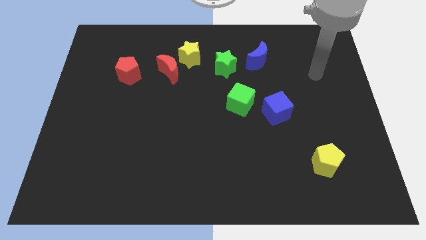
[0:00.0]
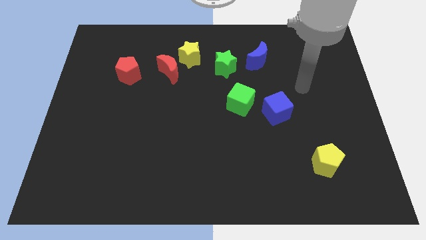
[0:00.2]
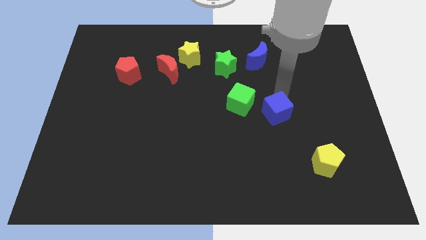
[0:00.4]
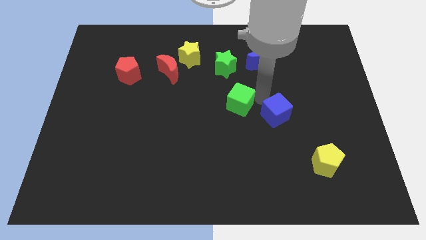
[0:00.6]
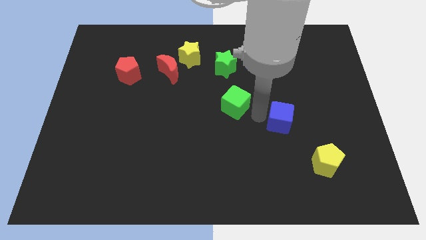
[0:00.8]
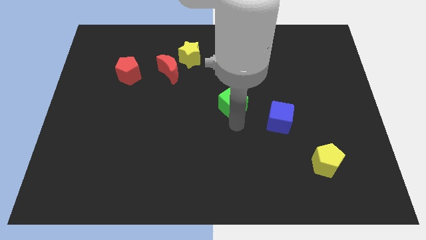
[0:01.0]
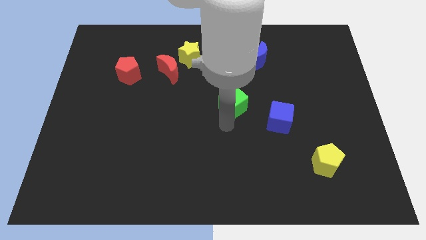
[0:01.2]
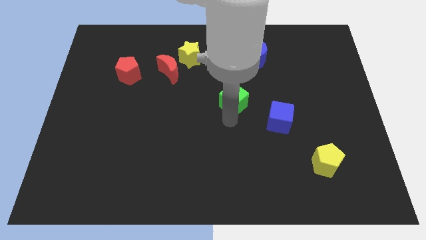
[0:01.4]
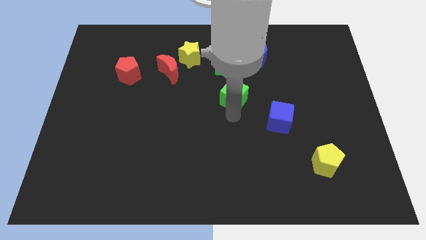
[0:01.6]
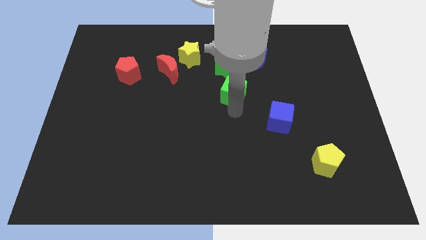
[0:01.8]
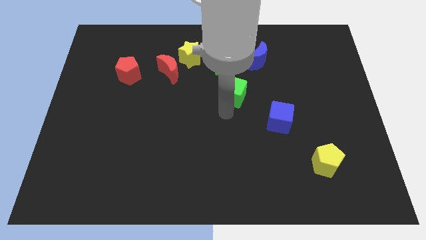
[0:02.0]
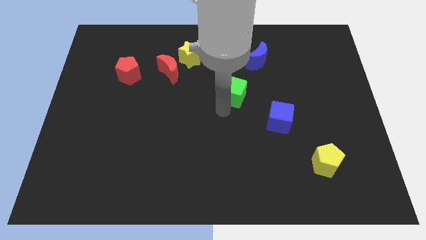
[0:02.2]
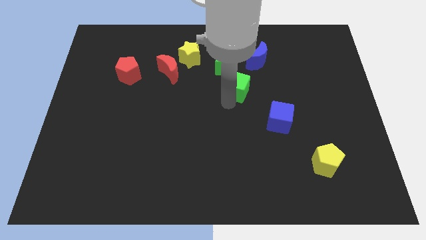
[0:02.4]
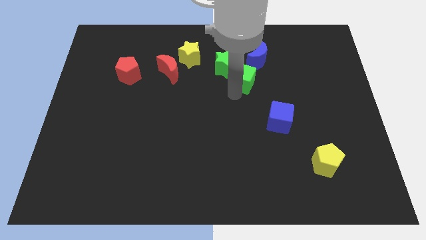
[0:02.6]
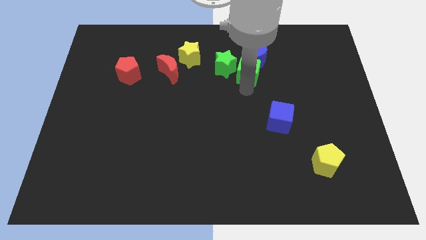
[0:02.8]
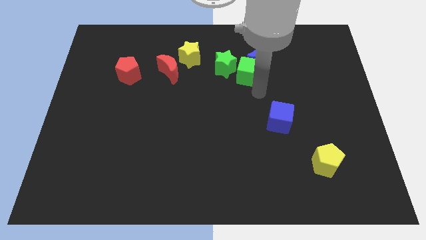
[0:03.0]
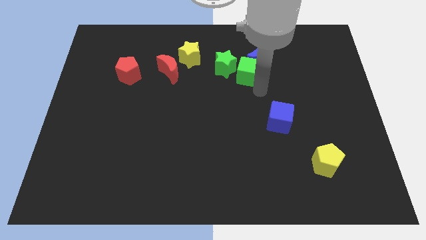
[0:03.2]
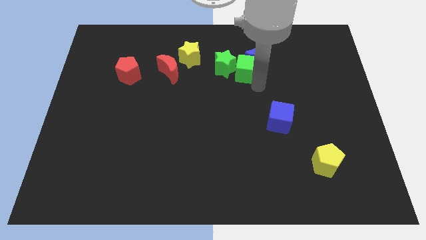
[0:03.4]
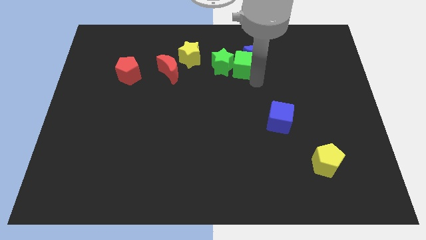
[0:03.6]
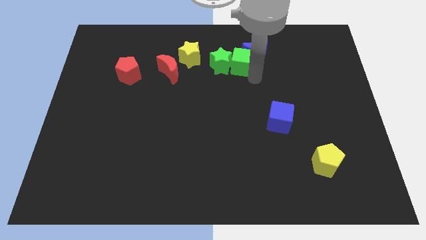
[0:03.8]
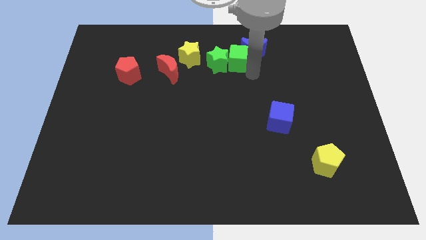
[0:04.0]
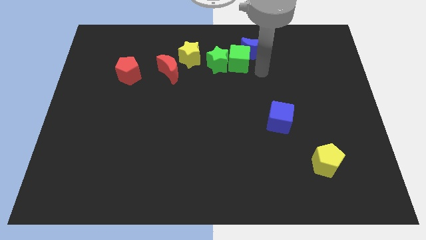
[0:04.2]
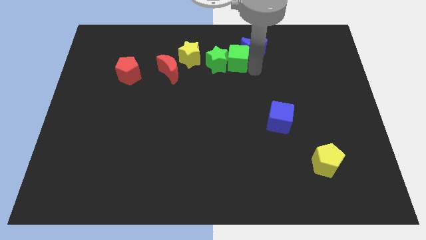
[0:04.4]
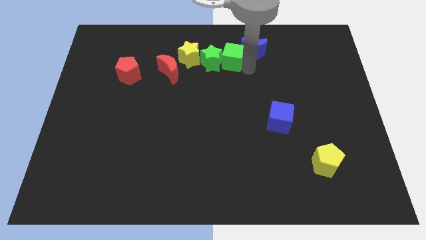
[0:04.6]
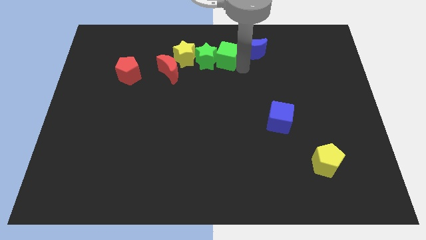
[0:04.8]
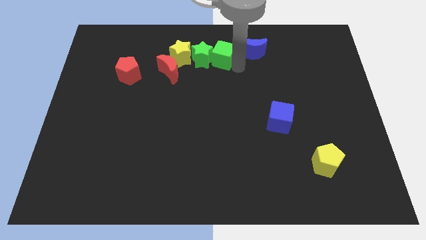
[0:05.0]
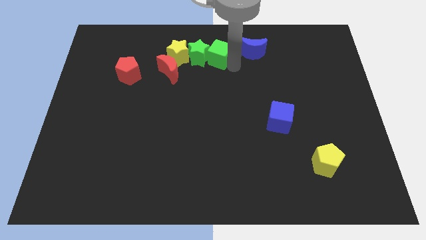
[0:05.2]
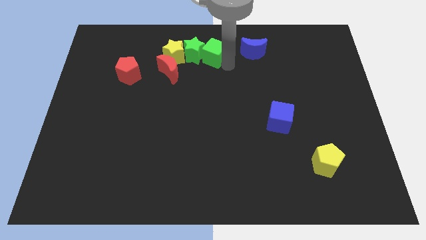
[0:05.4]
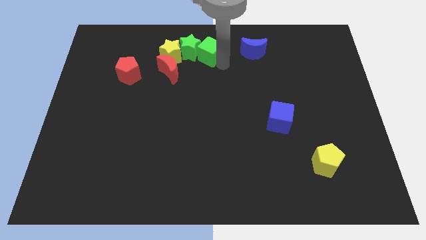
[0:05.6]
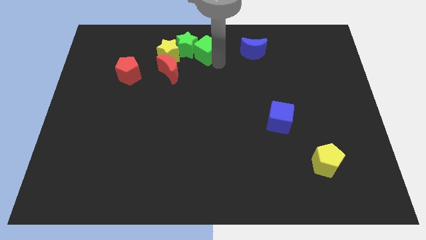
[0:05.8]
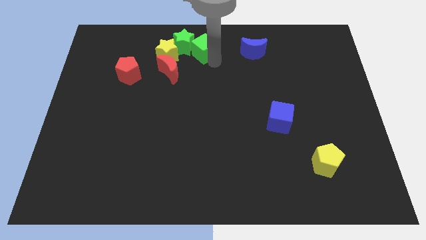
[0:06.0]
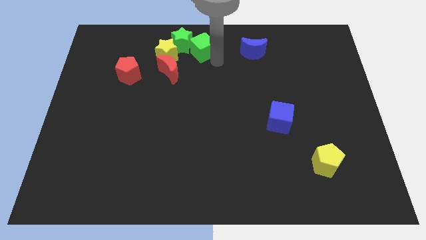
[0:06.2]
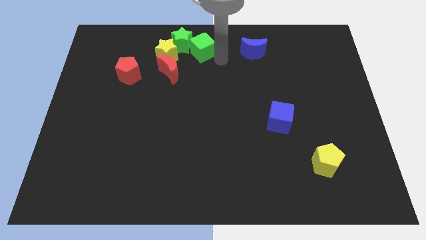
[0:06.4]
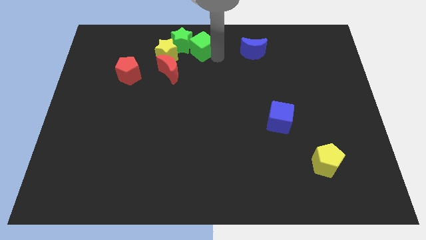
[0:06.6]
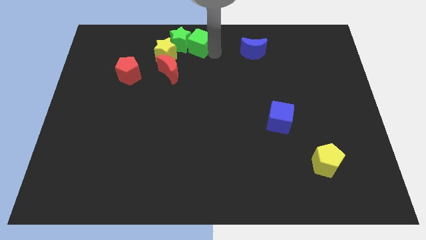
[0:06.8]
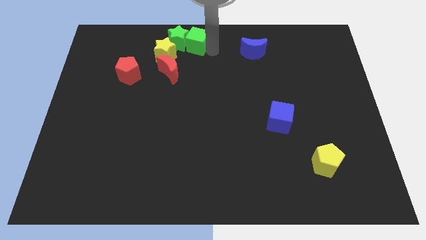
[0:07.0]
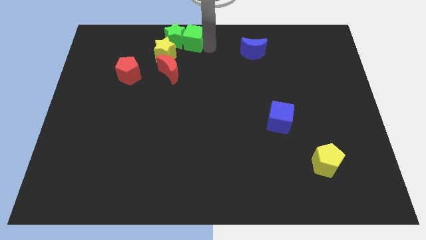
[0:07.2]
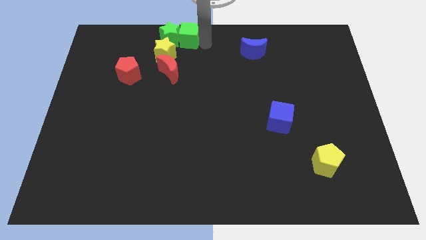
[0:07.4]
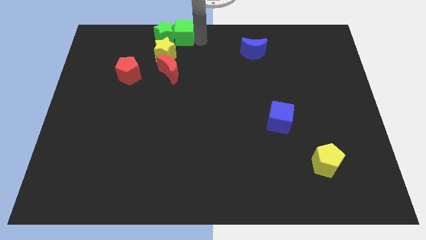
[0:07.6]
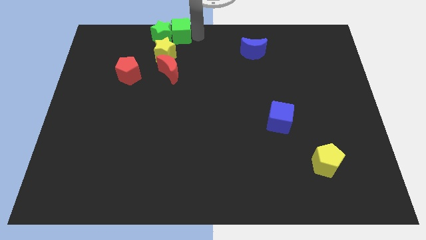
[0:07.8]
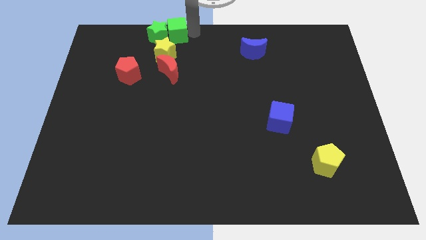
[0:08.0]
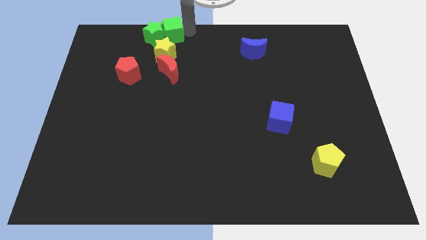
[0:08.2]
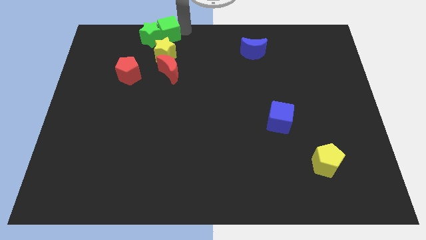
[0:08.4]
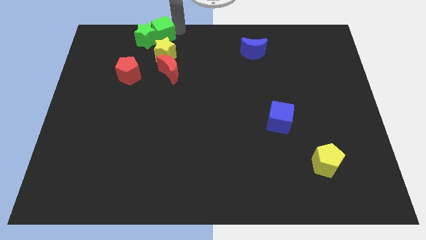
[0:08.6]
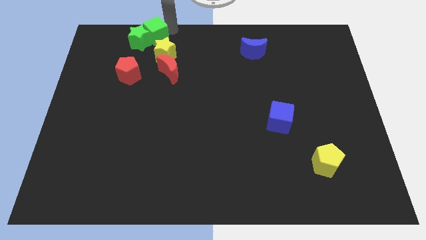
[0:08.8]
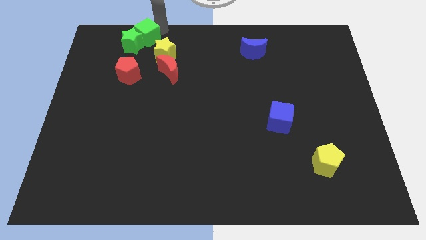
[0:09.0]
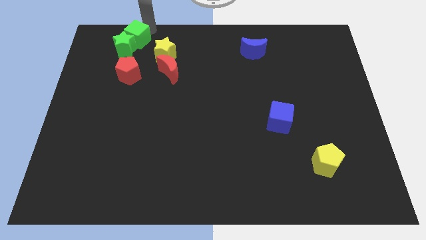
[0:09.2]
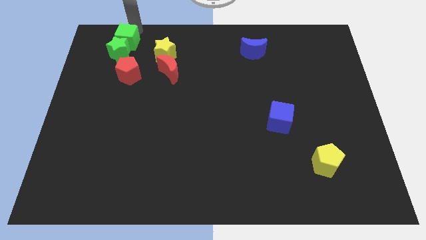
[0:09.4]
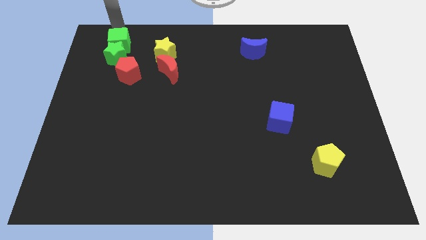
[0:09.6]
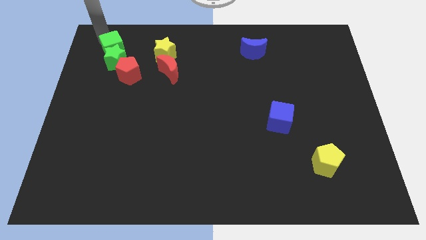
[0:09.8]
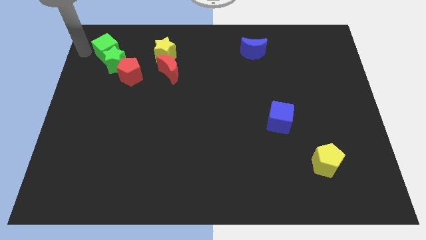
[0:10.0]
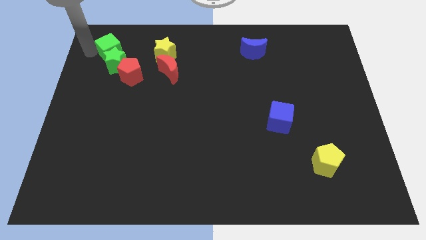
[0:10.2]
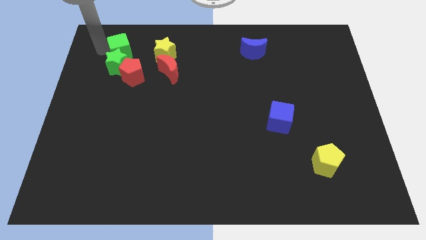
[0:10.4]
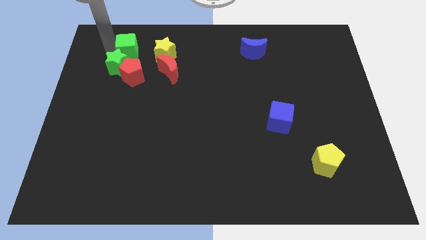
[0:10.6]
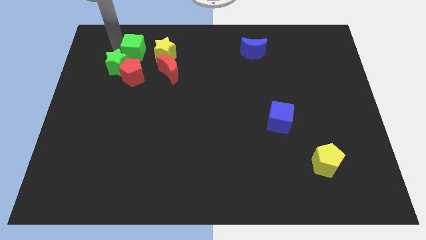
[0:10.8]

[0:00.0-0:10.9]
push the green cube to the top left side of the red moon

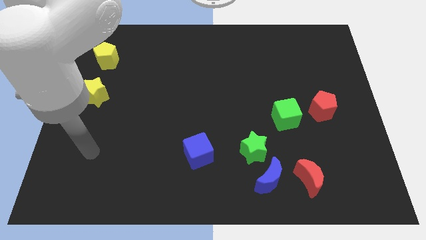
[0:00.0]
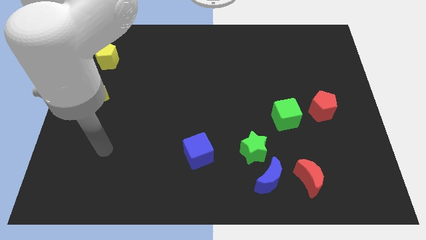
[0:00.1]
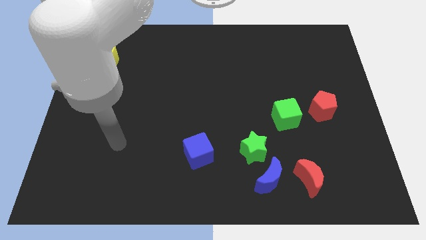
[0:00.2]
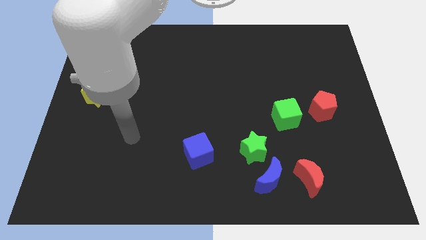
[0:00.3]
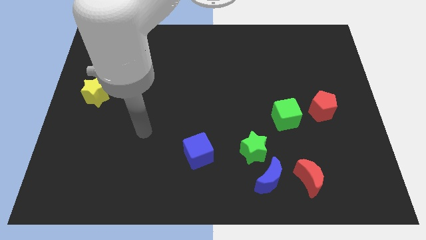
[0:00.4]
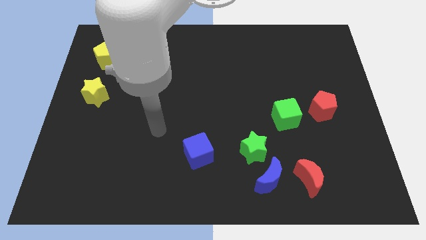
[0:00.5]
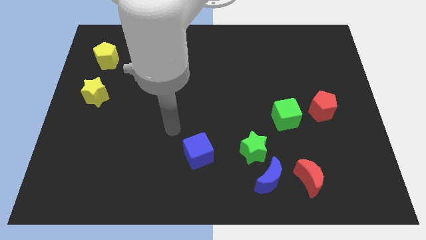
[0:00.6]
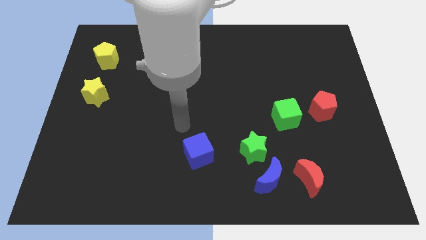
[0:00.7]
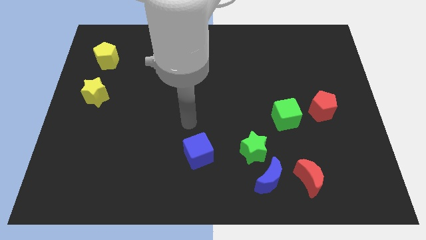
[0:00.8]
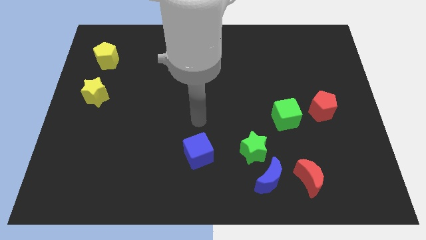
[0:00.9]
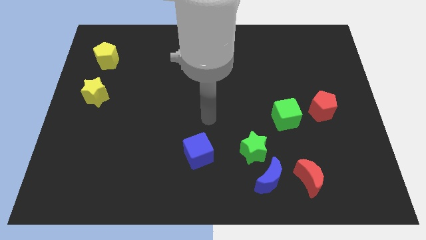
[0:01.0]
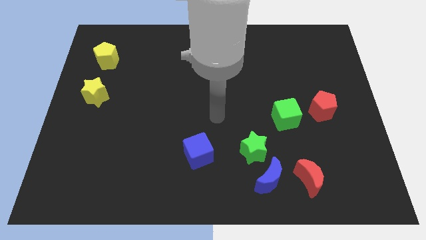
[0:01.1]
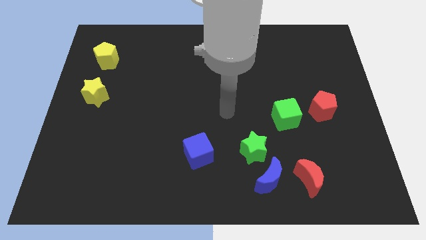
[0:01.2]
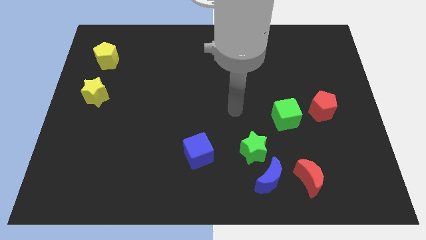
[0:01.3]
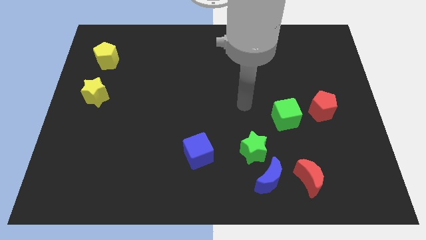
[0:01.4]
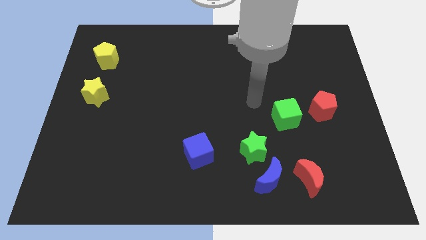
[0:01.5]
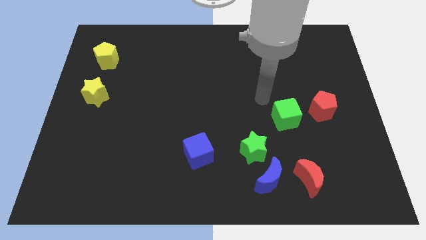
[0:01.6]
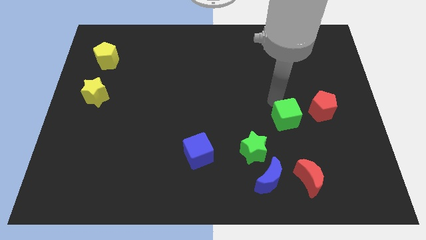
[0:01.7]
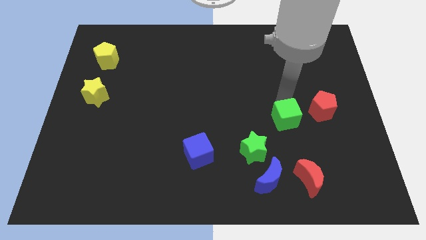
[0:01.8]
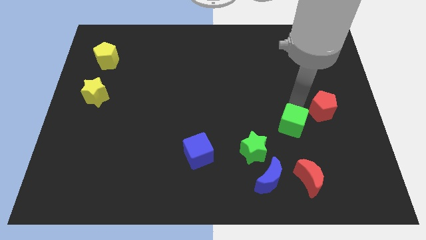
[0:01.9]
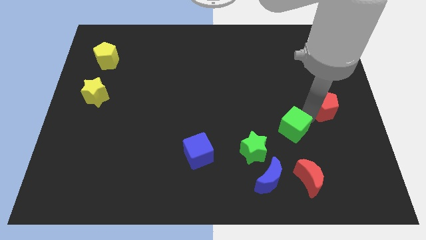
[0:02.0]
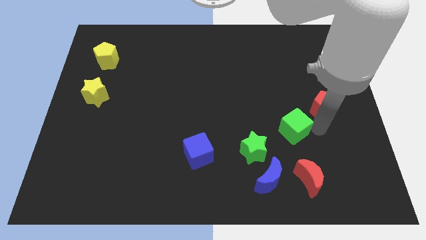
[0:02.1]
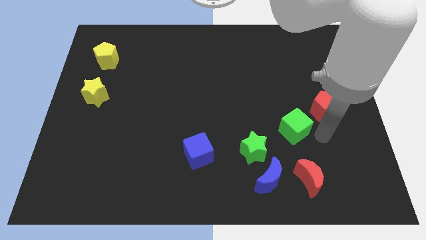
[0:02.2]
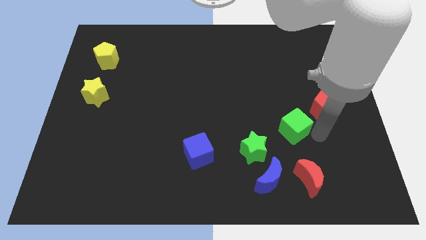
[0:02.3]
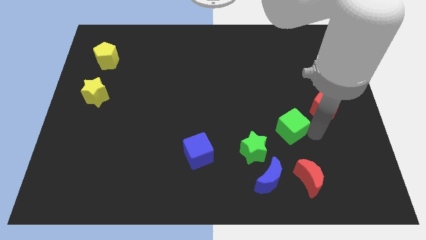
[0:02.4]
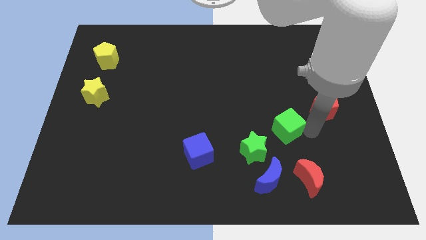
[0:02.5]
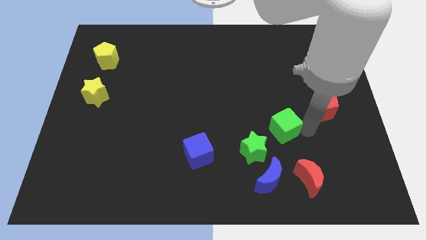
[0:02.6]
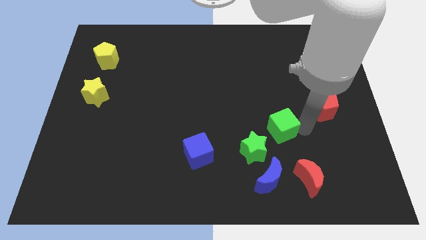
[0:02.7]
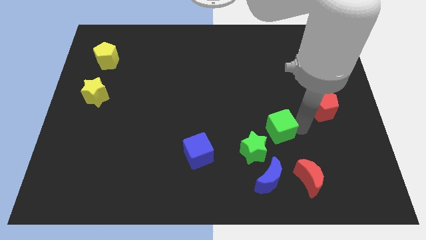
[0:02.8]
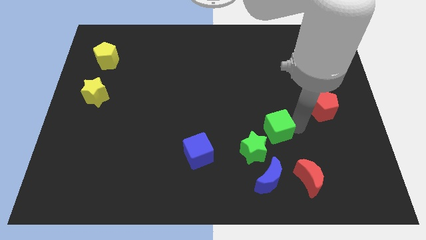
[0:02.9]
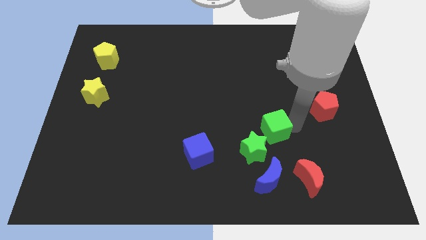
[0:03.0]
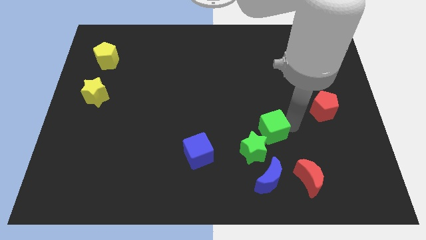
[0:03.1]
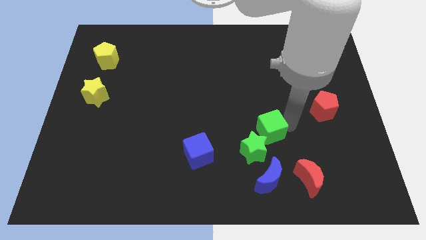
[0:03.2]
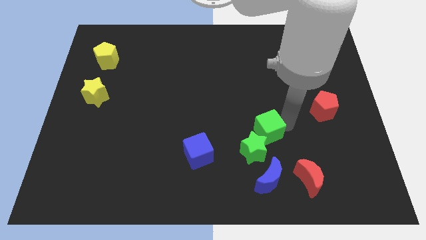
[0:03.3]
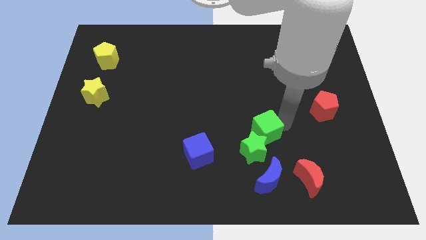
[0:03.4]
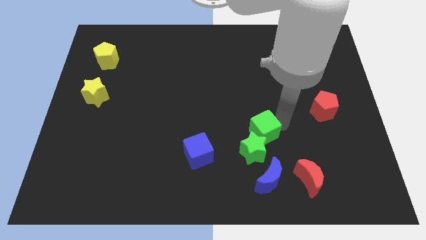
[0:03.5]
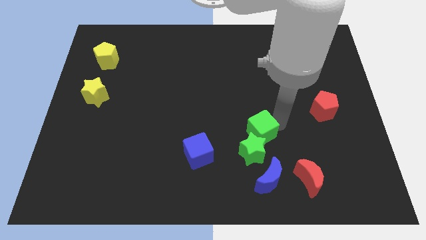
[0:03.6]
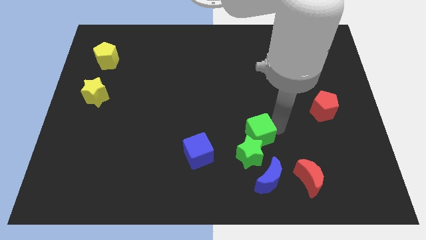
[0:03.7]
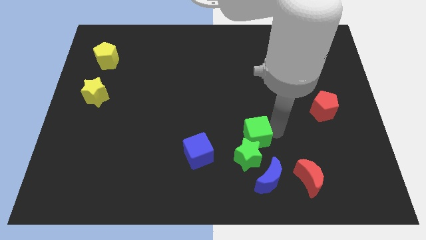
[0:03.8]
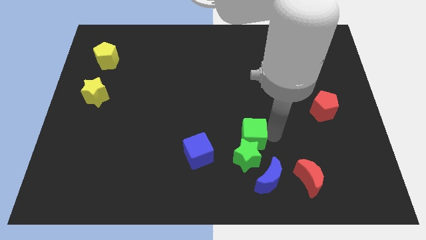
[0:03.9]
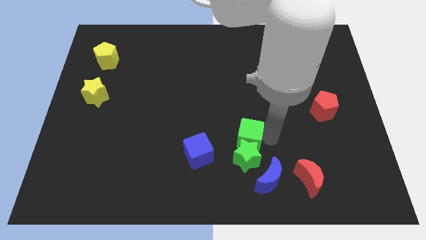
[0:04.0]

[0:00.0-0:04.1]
slide the green cube diagonally up and to the left of the blue moon
